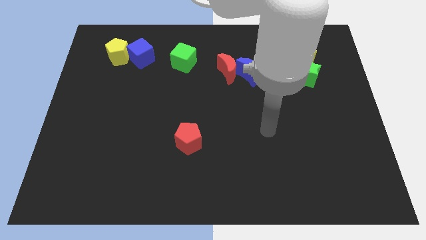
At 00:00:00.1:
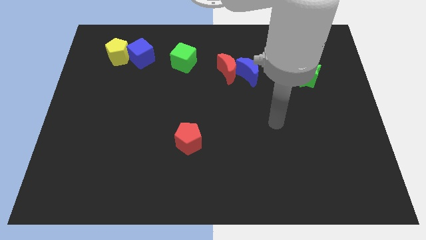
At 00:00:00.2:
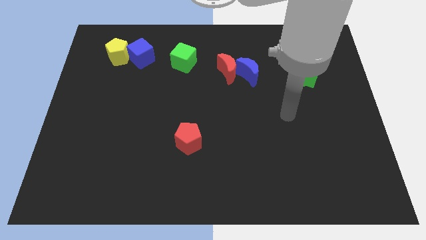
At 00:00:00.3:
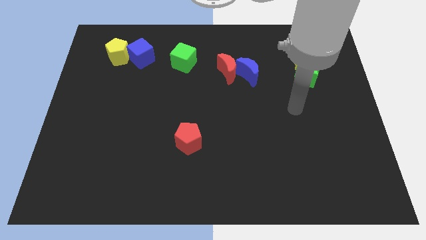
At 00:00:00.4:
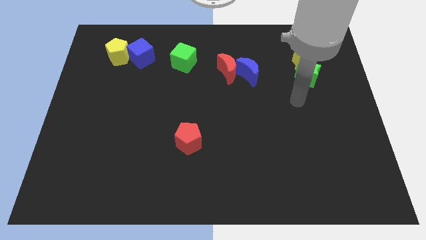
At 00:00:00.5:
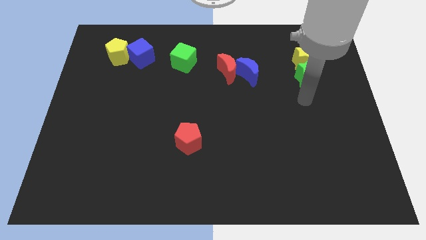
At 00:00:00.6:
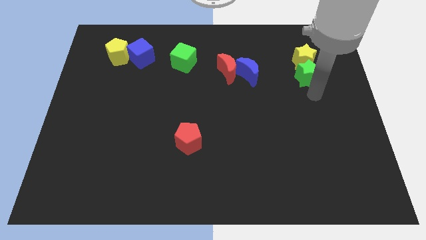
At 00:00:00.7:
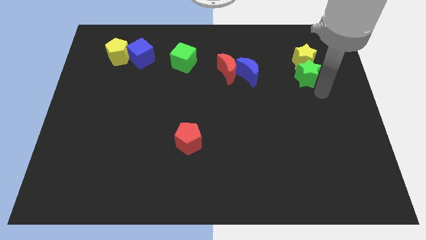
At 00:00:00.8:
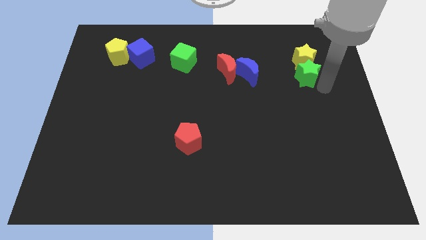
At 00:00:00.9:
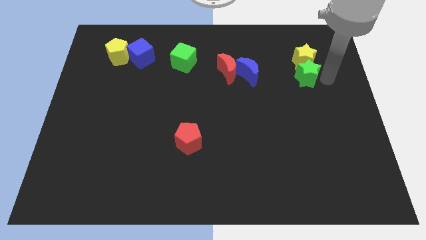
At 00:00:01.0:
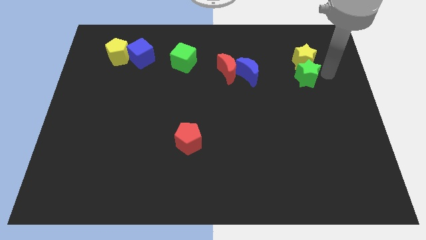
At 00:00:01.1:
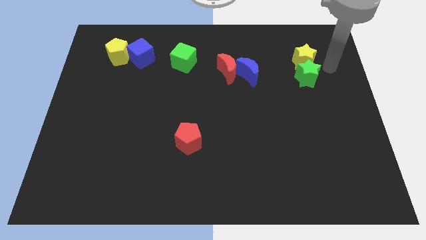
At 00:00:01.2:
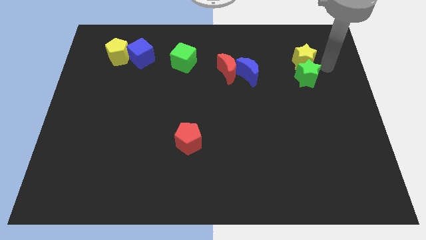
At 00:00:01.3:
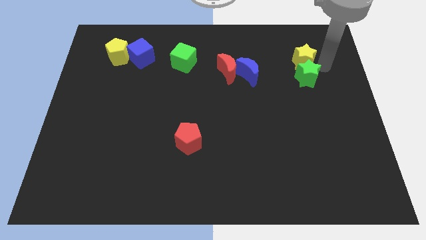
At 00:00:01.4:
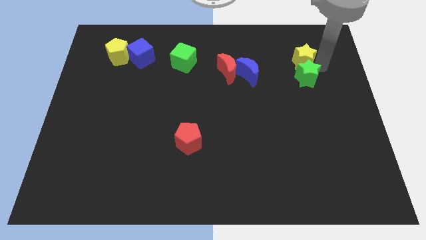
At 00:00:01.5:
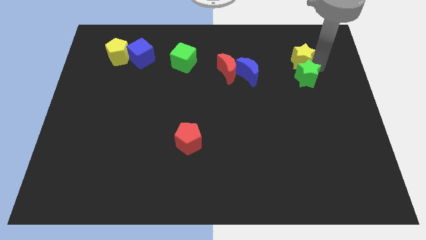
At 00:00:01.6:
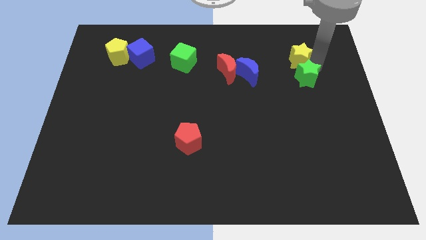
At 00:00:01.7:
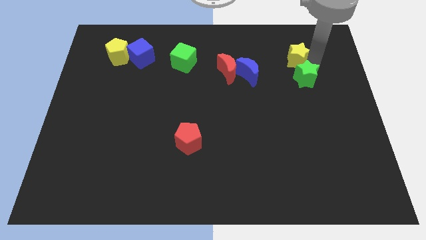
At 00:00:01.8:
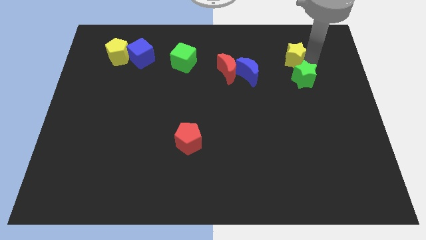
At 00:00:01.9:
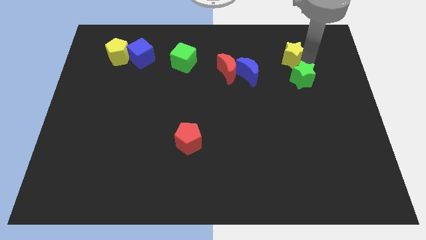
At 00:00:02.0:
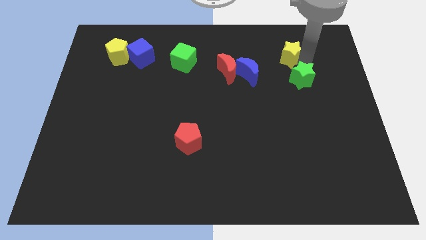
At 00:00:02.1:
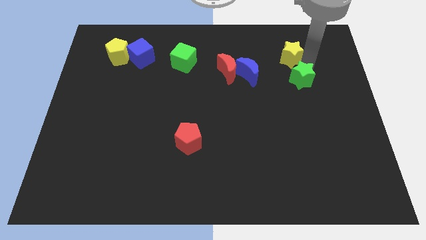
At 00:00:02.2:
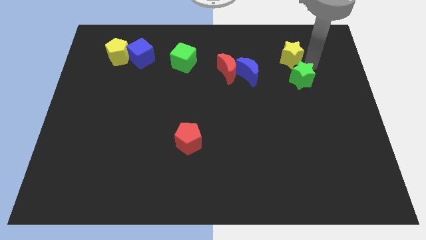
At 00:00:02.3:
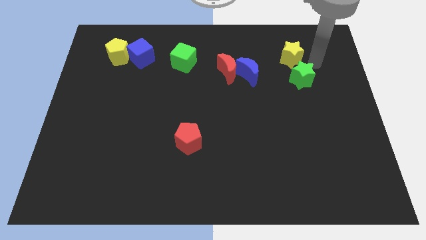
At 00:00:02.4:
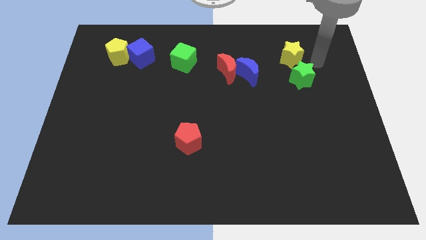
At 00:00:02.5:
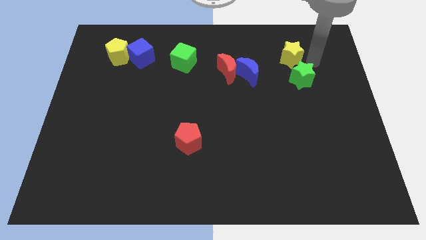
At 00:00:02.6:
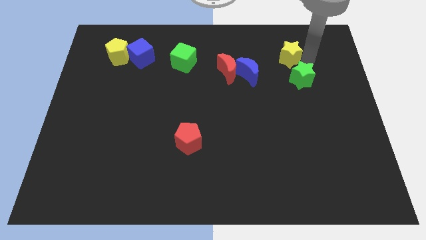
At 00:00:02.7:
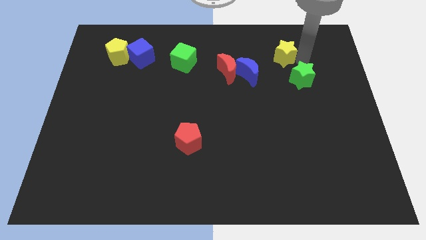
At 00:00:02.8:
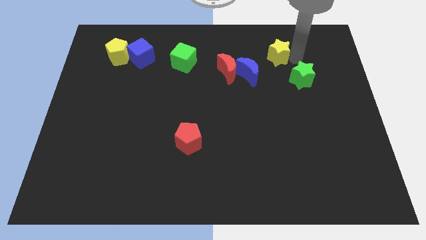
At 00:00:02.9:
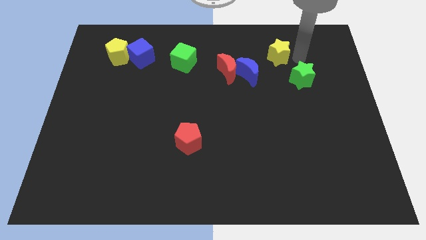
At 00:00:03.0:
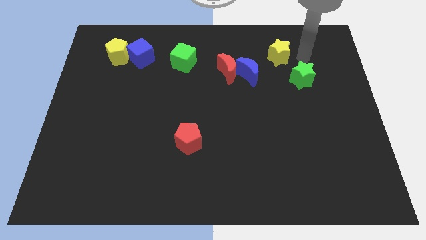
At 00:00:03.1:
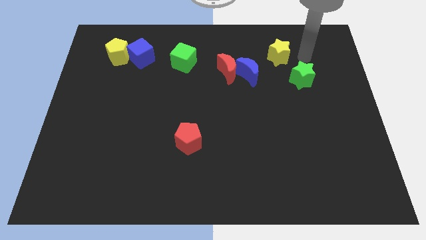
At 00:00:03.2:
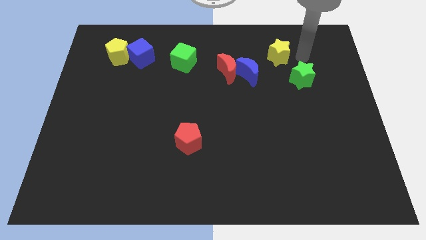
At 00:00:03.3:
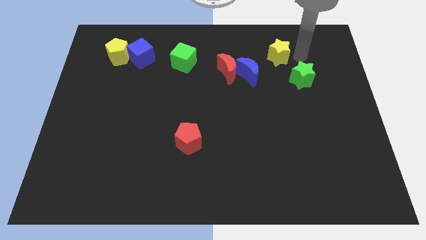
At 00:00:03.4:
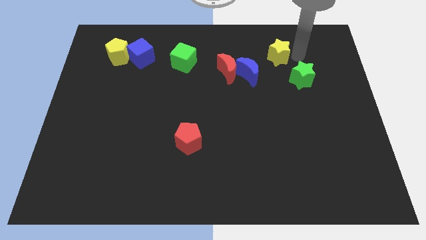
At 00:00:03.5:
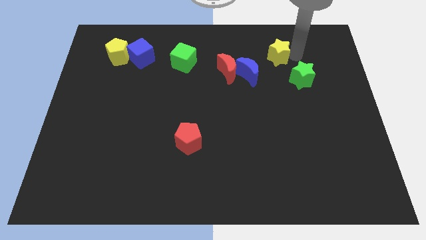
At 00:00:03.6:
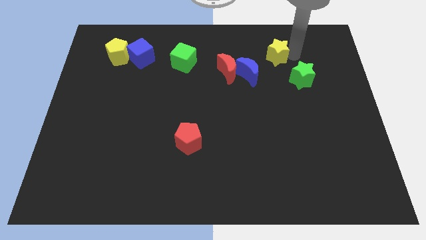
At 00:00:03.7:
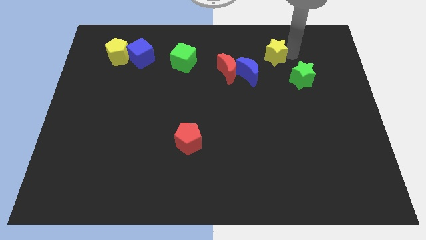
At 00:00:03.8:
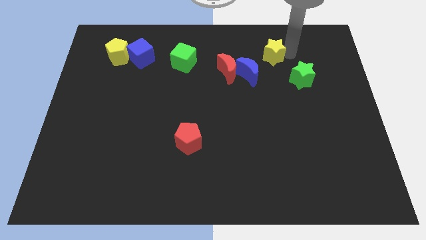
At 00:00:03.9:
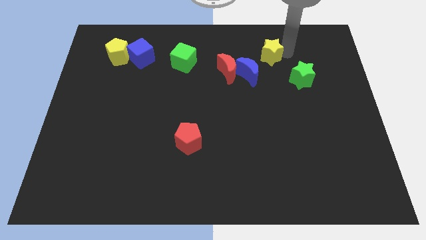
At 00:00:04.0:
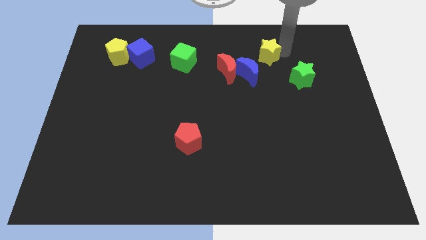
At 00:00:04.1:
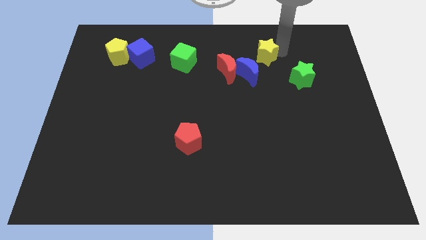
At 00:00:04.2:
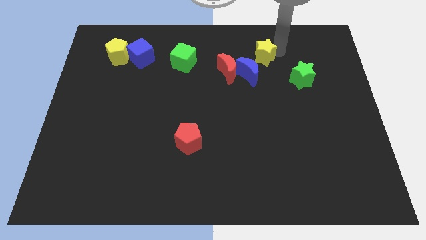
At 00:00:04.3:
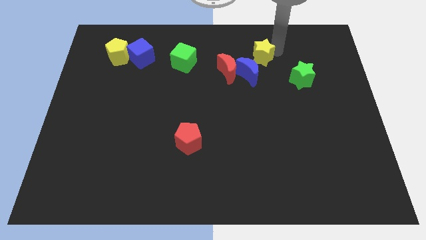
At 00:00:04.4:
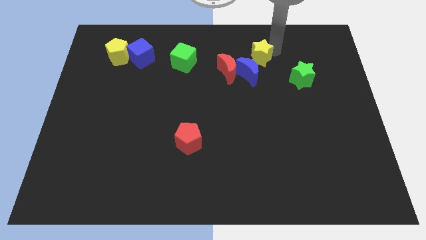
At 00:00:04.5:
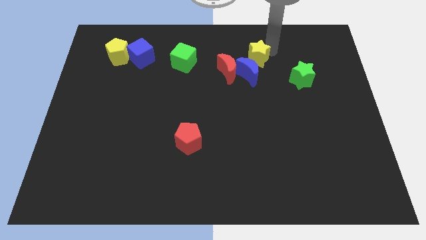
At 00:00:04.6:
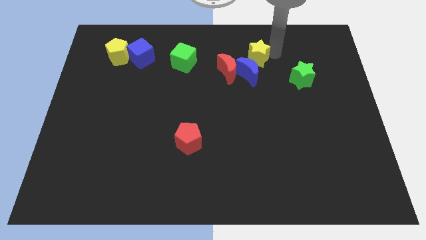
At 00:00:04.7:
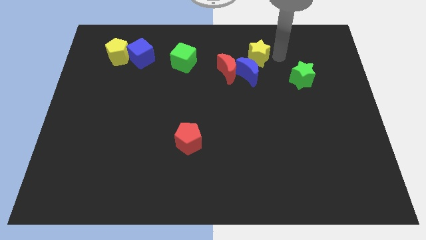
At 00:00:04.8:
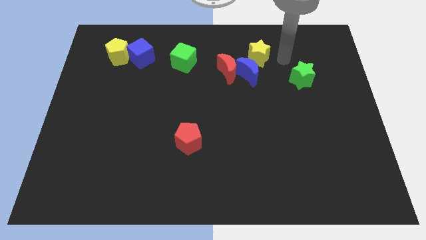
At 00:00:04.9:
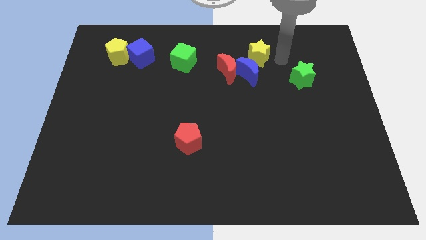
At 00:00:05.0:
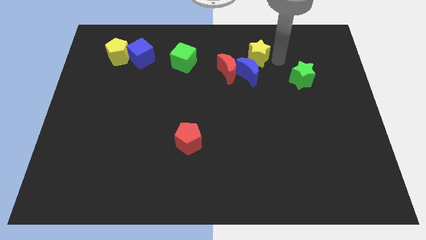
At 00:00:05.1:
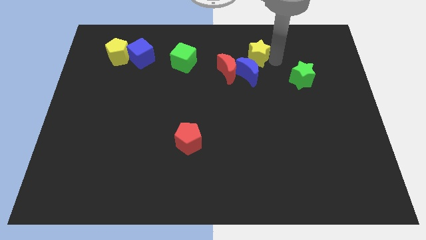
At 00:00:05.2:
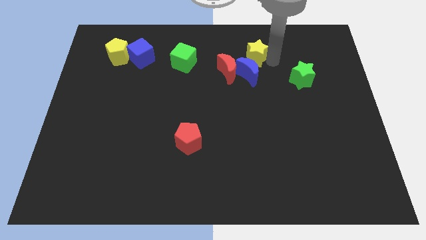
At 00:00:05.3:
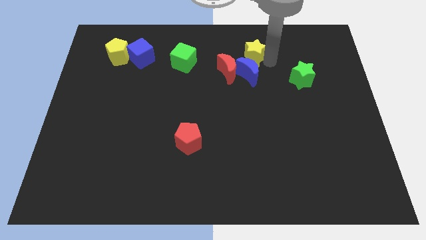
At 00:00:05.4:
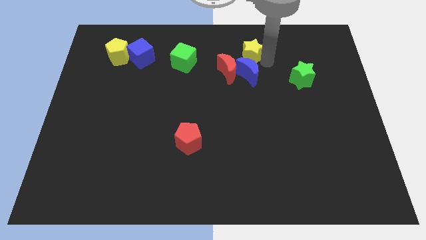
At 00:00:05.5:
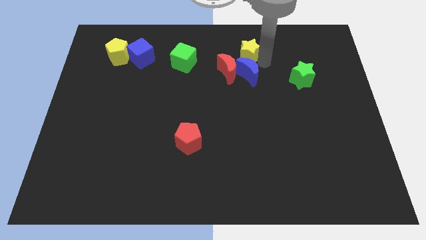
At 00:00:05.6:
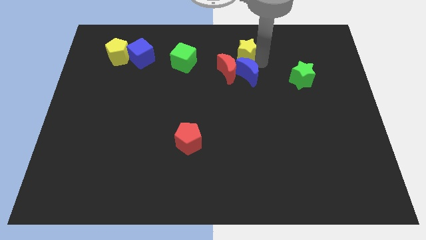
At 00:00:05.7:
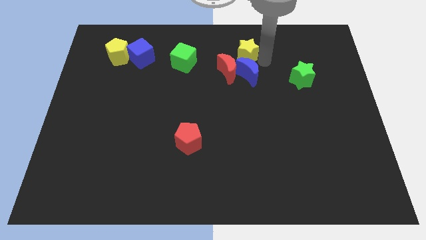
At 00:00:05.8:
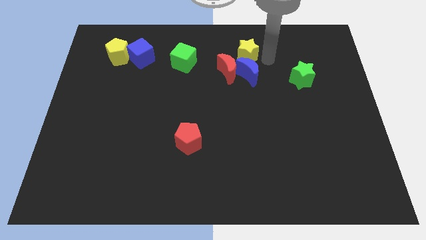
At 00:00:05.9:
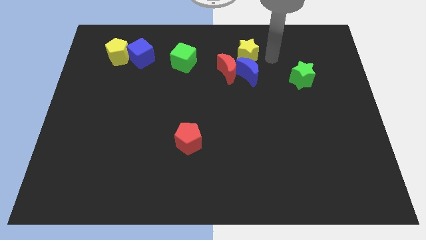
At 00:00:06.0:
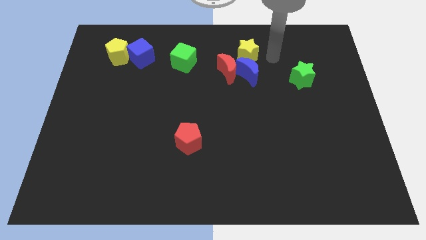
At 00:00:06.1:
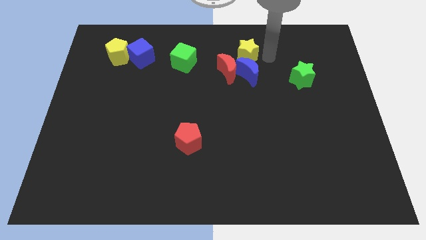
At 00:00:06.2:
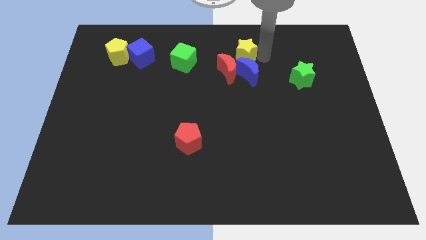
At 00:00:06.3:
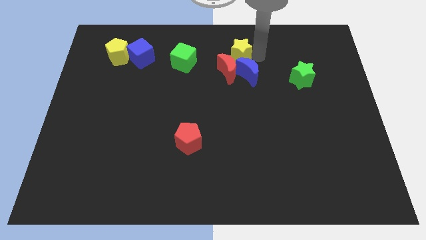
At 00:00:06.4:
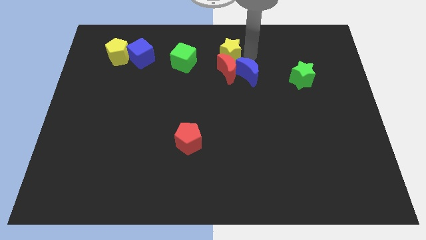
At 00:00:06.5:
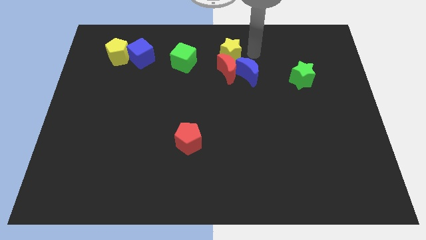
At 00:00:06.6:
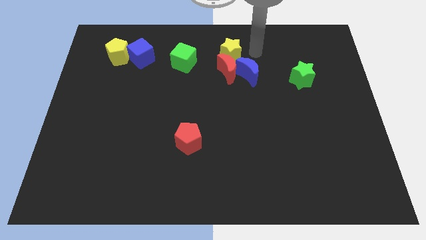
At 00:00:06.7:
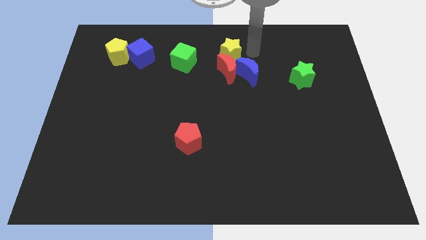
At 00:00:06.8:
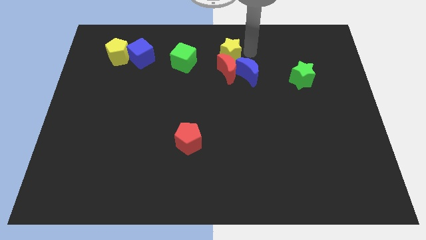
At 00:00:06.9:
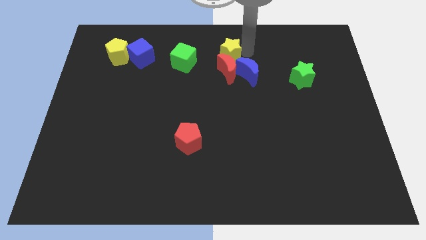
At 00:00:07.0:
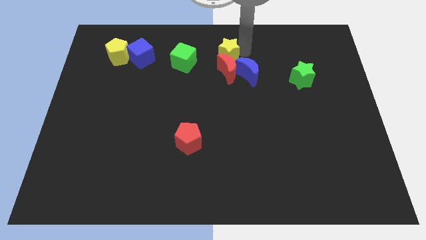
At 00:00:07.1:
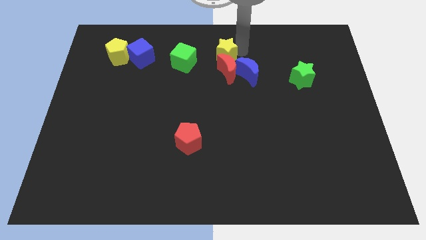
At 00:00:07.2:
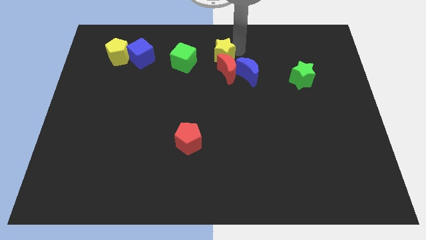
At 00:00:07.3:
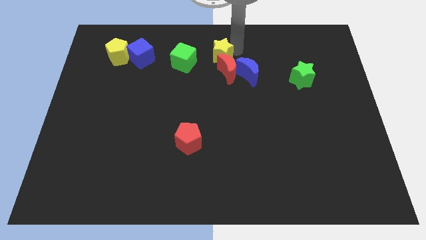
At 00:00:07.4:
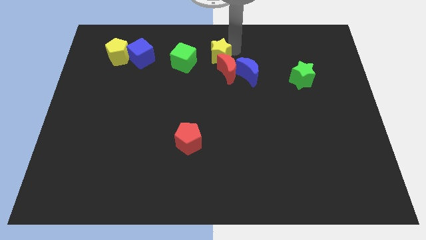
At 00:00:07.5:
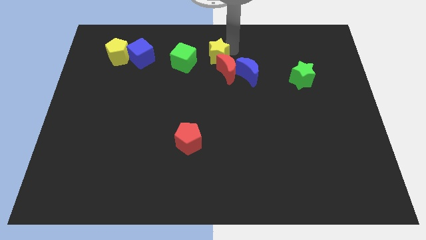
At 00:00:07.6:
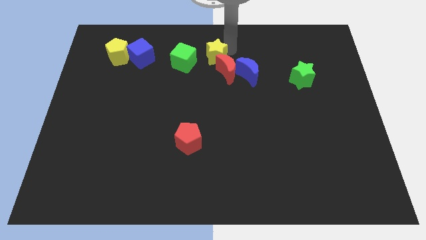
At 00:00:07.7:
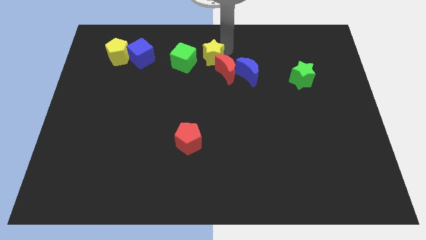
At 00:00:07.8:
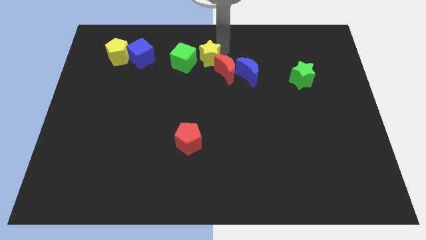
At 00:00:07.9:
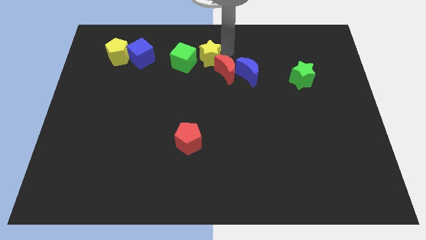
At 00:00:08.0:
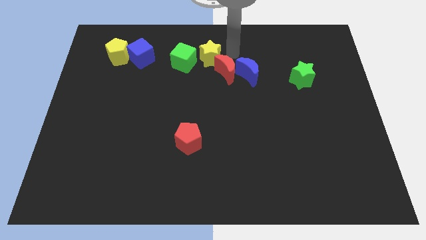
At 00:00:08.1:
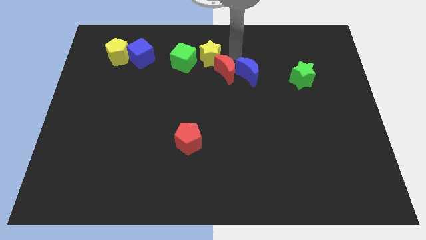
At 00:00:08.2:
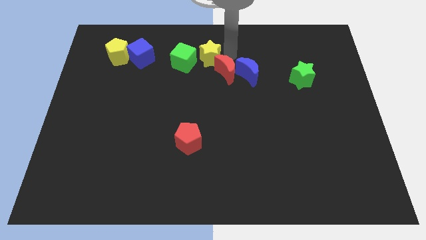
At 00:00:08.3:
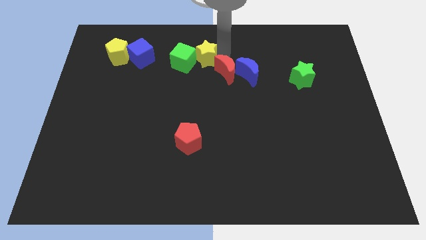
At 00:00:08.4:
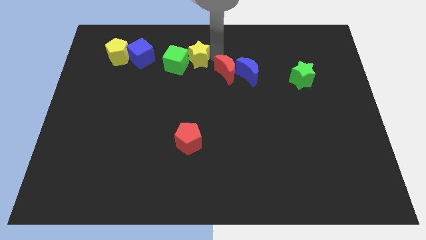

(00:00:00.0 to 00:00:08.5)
slide the yellow star next to the green cube
